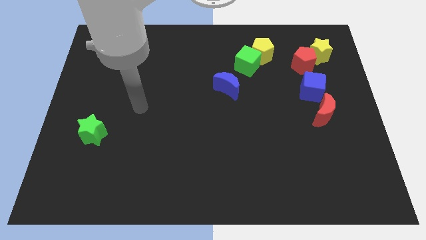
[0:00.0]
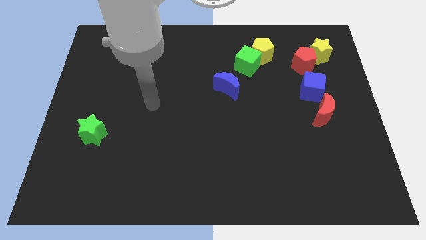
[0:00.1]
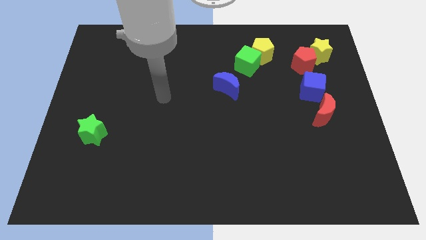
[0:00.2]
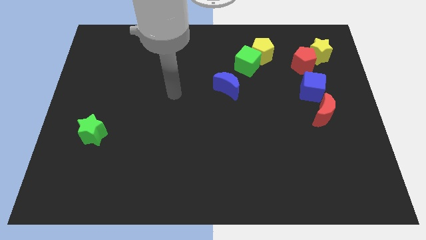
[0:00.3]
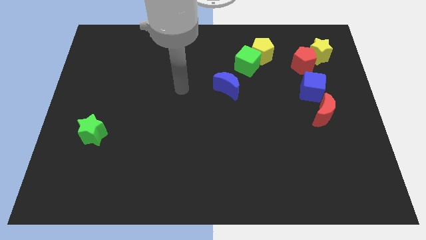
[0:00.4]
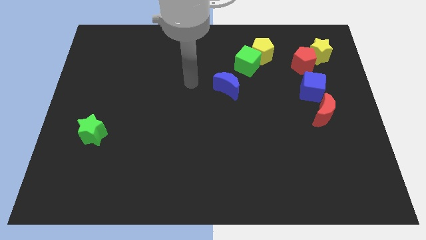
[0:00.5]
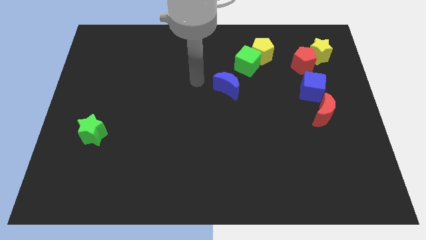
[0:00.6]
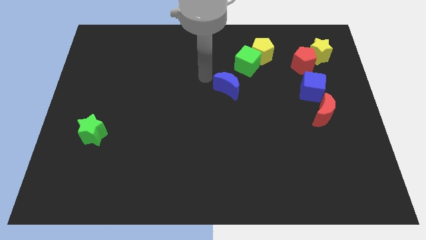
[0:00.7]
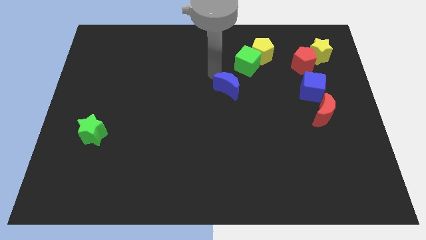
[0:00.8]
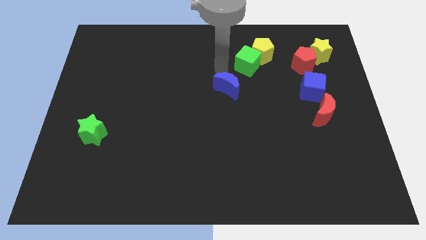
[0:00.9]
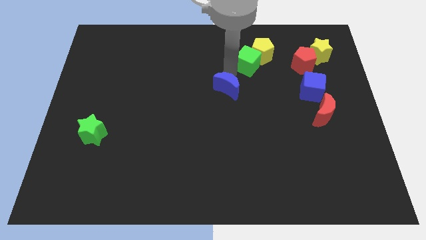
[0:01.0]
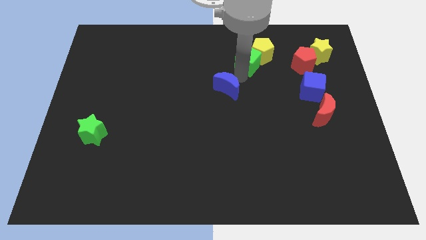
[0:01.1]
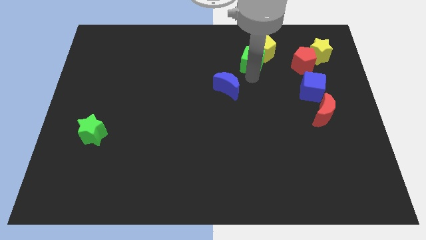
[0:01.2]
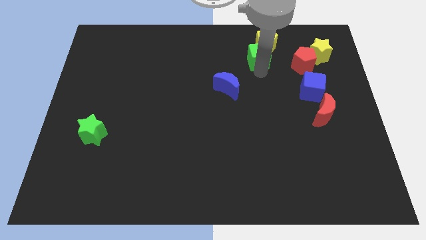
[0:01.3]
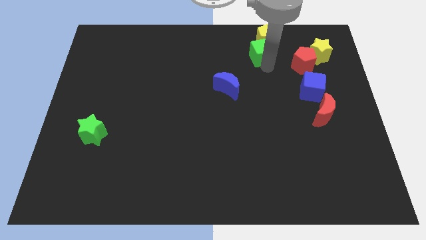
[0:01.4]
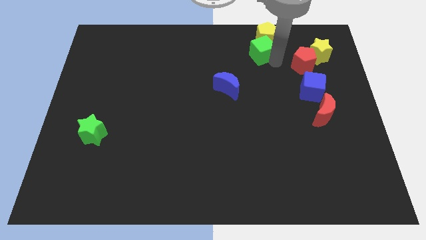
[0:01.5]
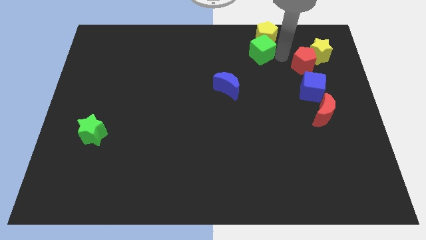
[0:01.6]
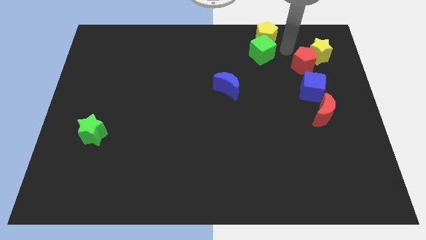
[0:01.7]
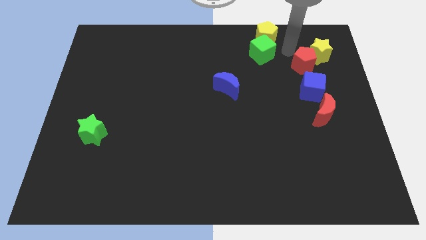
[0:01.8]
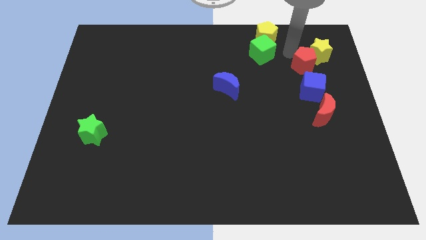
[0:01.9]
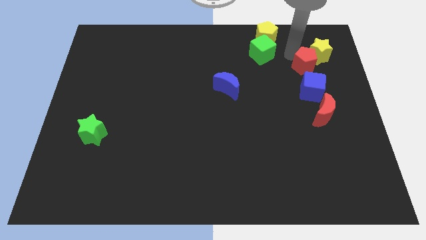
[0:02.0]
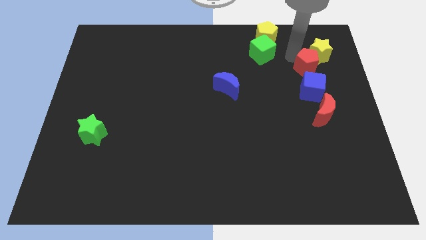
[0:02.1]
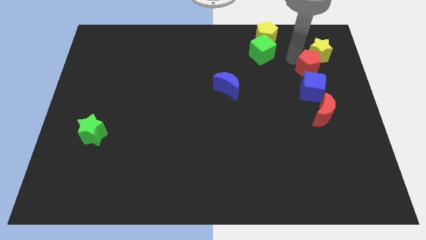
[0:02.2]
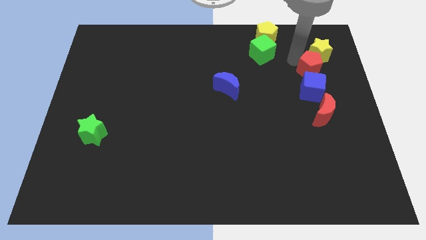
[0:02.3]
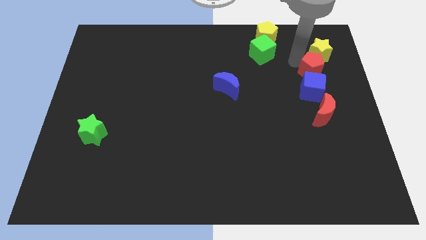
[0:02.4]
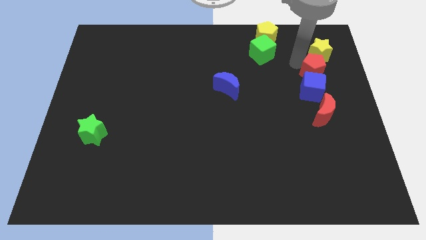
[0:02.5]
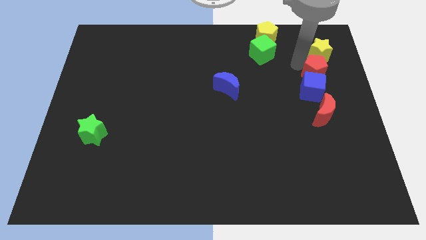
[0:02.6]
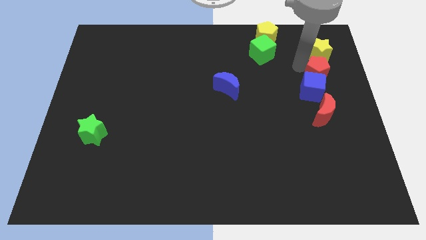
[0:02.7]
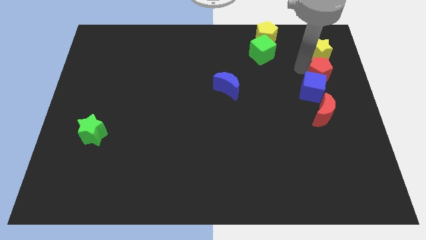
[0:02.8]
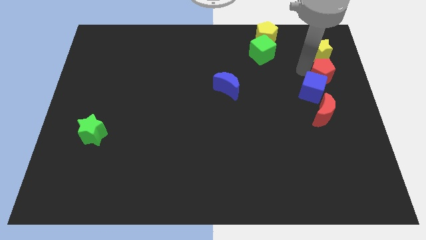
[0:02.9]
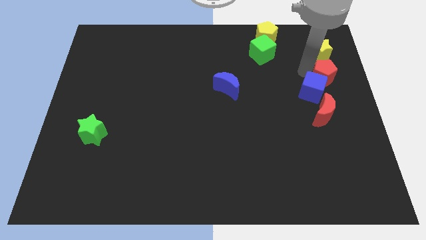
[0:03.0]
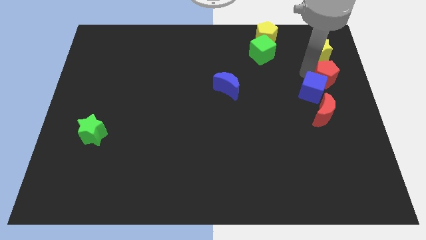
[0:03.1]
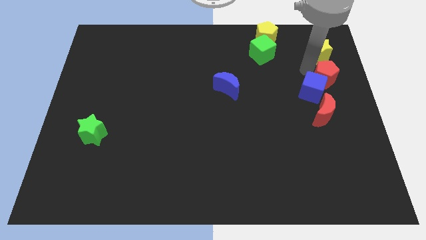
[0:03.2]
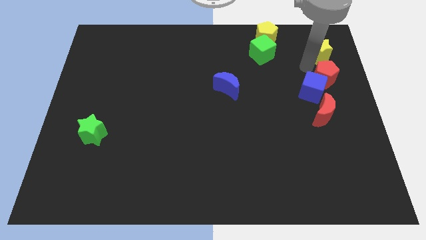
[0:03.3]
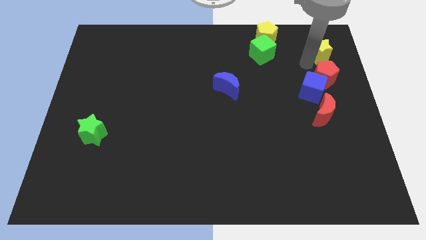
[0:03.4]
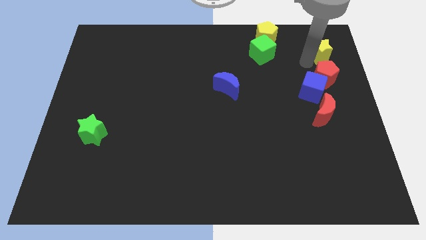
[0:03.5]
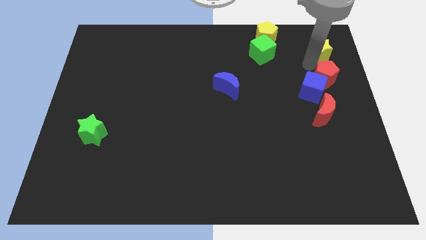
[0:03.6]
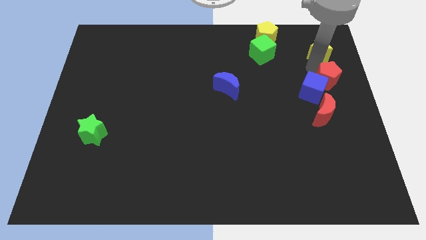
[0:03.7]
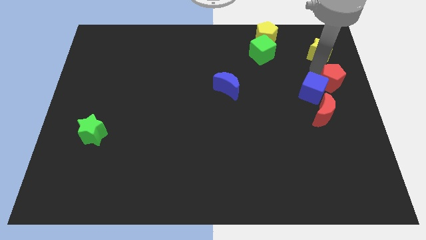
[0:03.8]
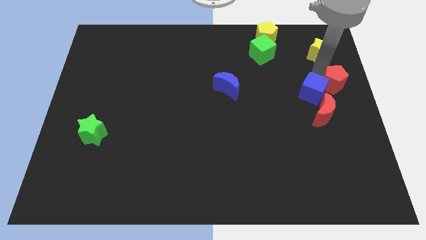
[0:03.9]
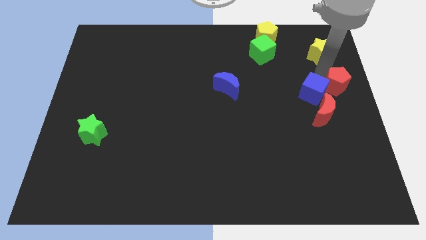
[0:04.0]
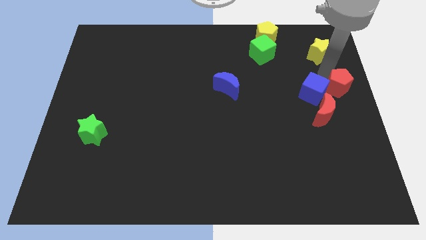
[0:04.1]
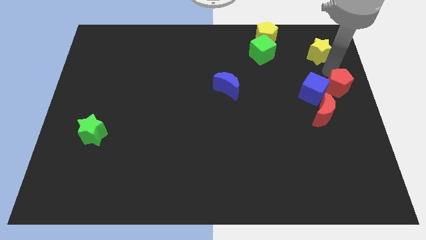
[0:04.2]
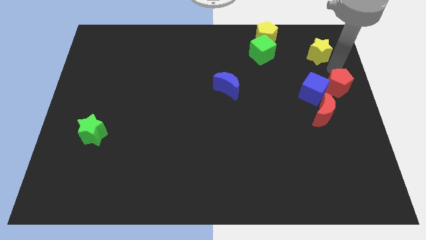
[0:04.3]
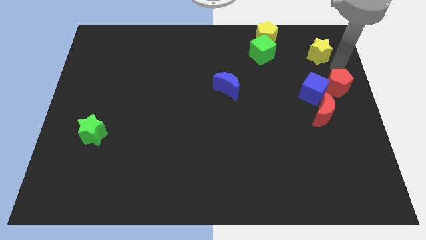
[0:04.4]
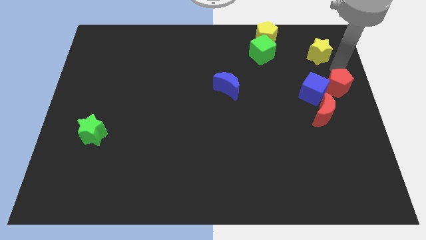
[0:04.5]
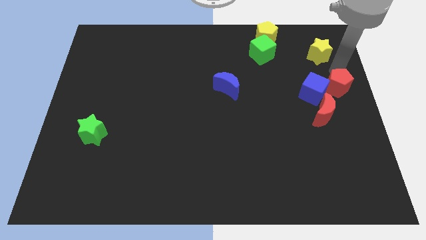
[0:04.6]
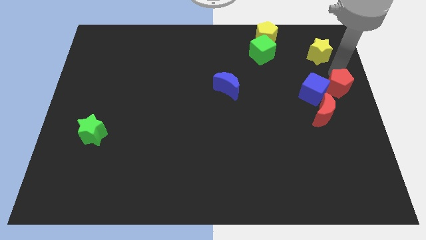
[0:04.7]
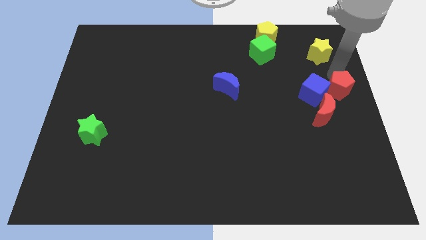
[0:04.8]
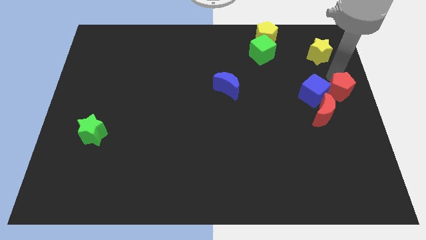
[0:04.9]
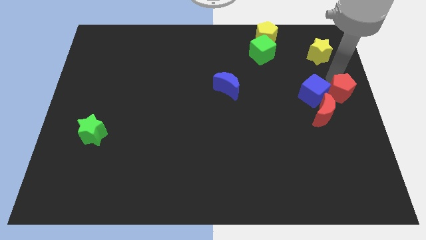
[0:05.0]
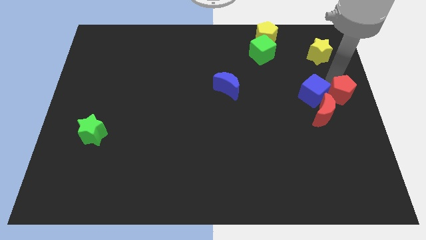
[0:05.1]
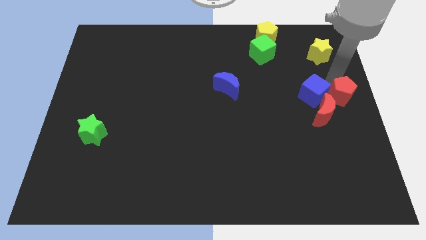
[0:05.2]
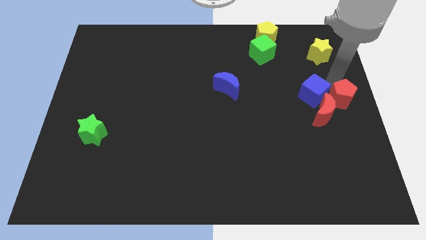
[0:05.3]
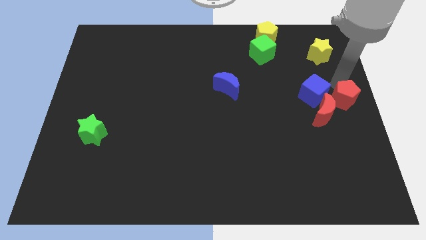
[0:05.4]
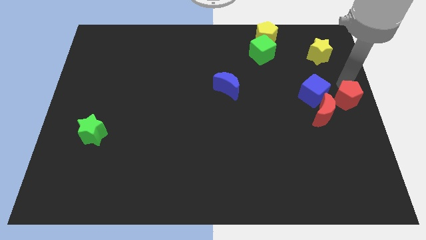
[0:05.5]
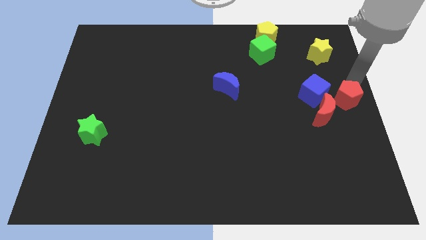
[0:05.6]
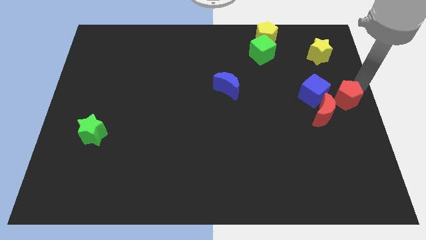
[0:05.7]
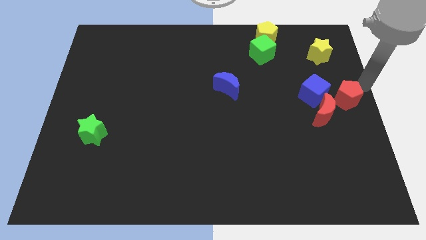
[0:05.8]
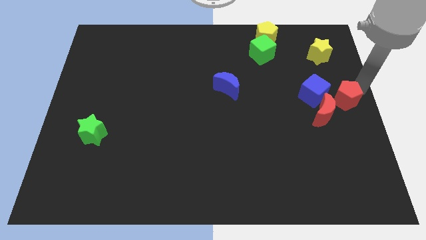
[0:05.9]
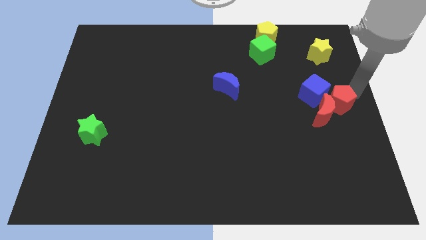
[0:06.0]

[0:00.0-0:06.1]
move the red pentagon to the red moon
